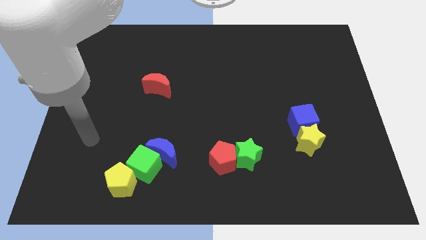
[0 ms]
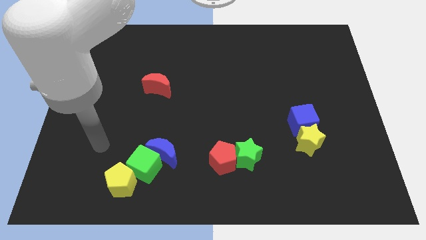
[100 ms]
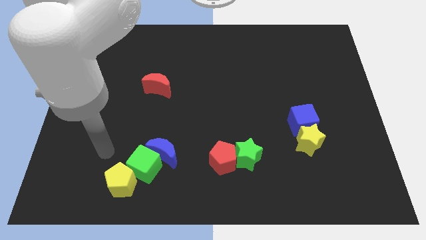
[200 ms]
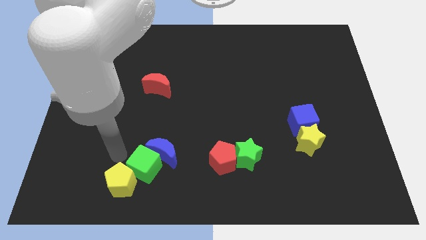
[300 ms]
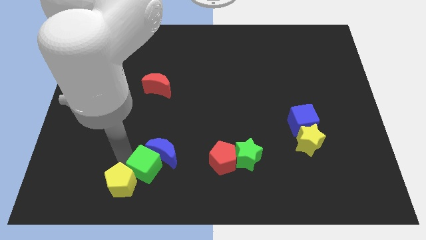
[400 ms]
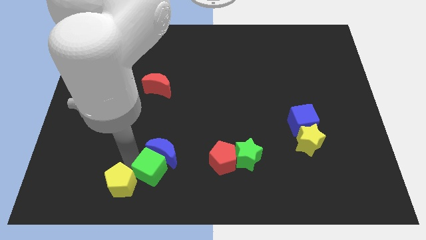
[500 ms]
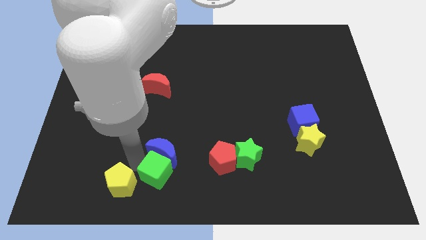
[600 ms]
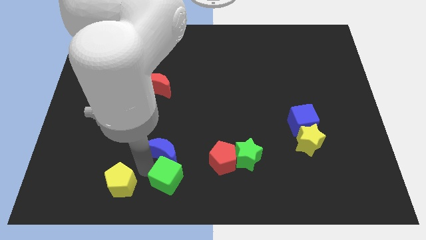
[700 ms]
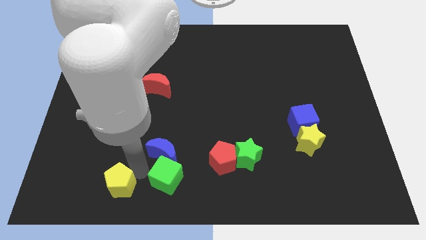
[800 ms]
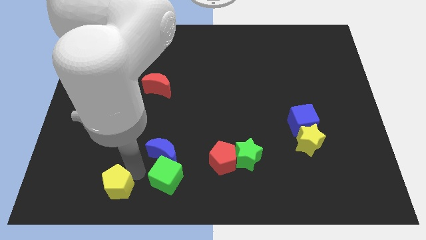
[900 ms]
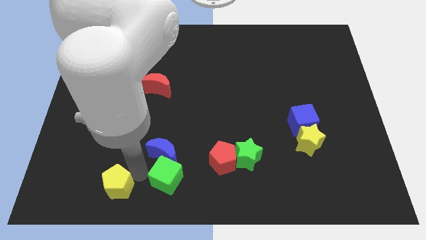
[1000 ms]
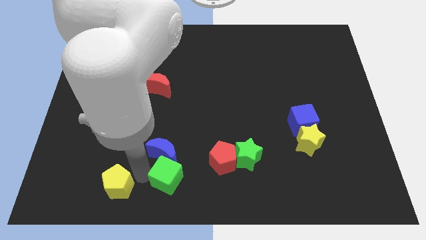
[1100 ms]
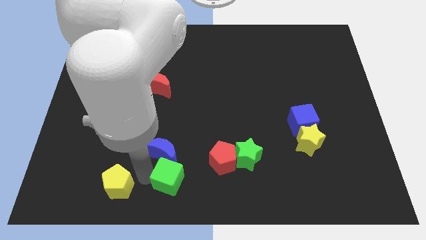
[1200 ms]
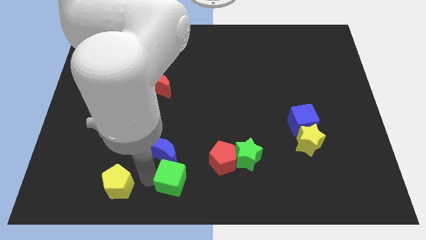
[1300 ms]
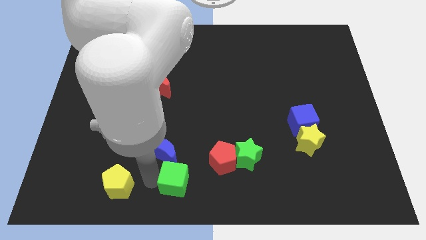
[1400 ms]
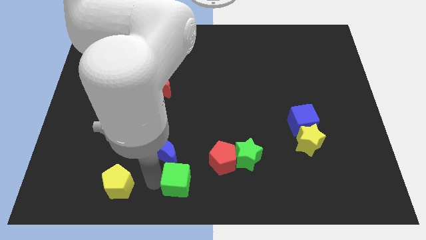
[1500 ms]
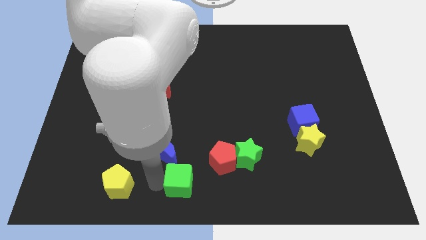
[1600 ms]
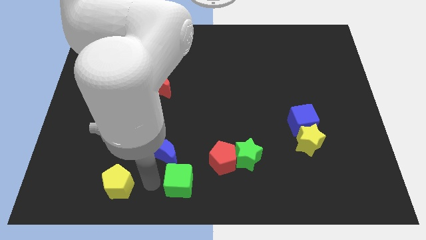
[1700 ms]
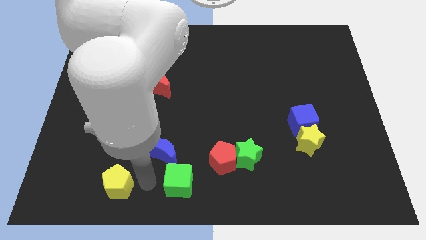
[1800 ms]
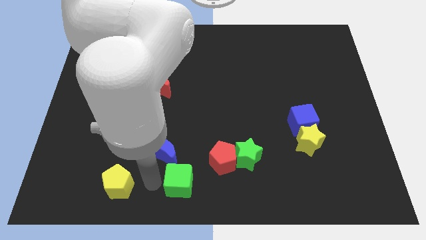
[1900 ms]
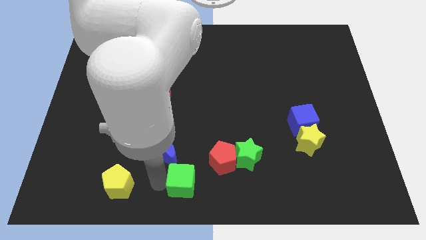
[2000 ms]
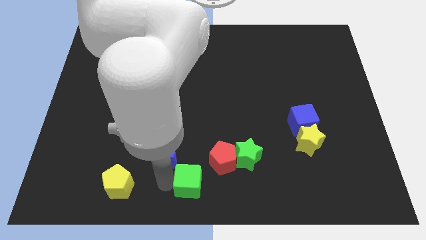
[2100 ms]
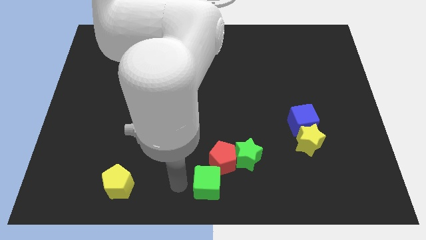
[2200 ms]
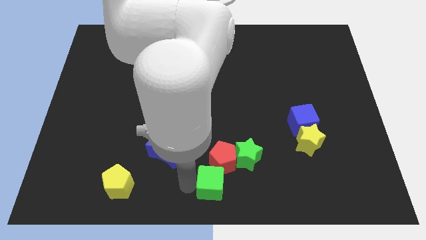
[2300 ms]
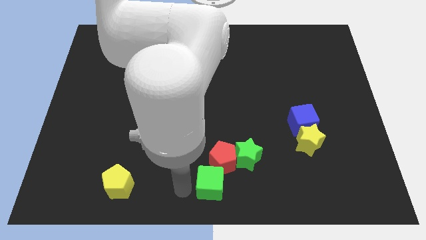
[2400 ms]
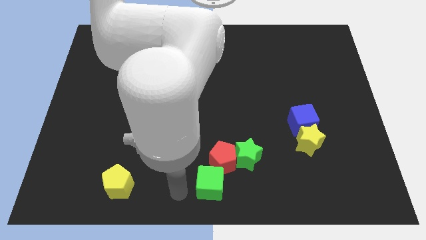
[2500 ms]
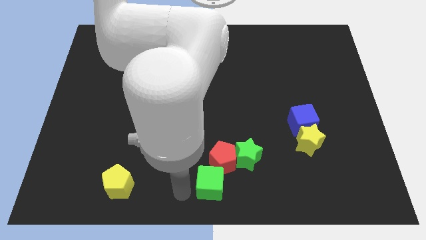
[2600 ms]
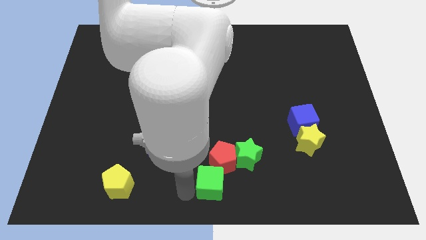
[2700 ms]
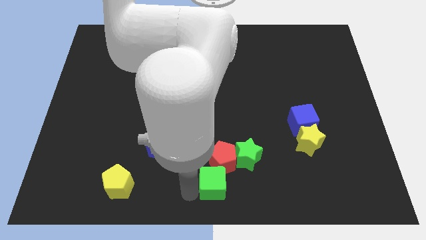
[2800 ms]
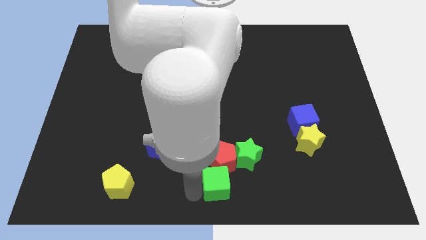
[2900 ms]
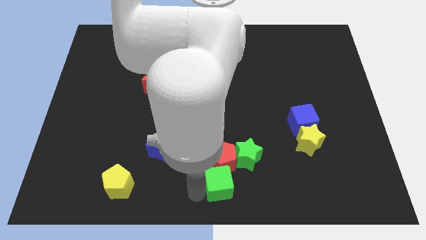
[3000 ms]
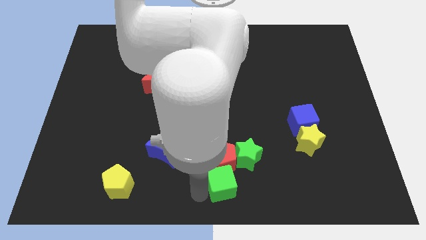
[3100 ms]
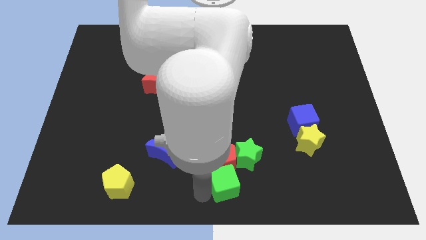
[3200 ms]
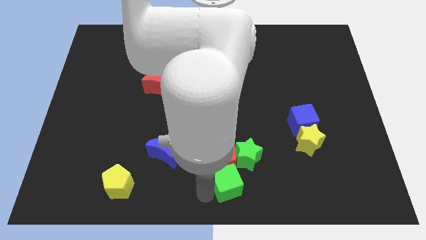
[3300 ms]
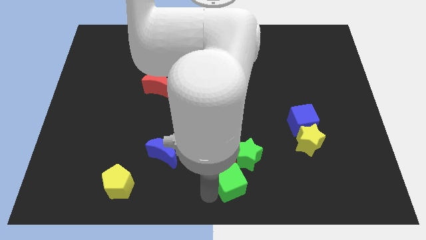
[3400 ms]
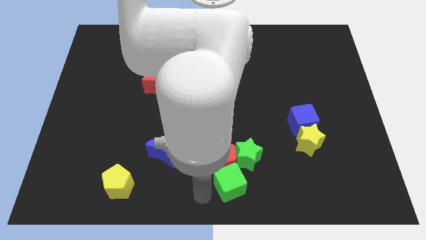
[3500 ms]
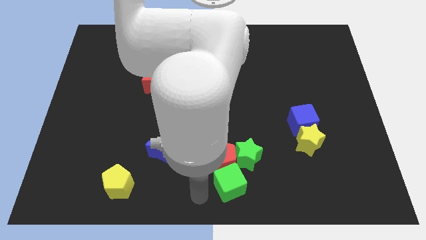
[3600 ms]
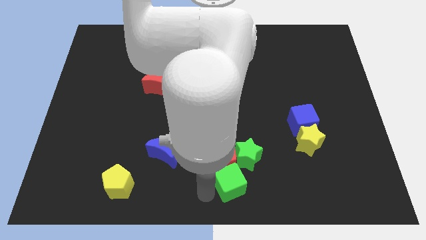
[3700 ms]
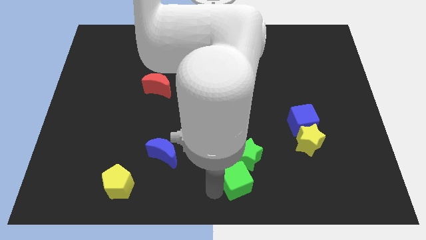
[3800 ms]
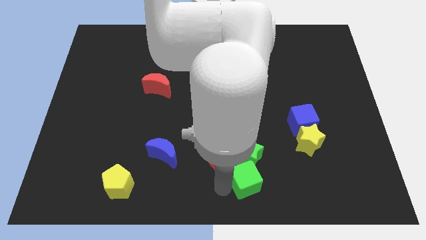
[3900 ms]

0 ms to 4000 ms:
push the green cube to the right

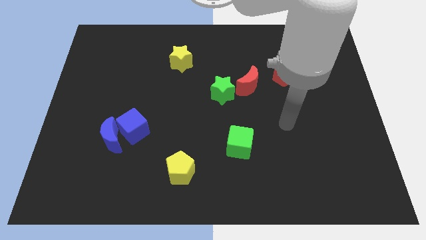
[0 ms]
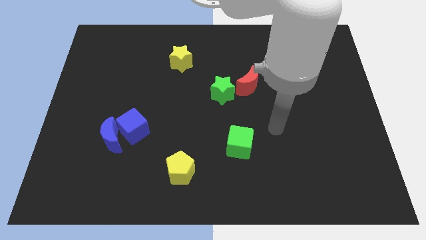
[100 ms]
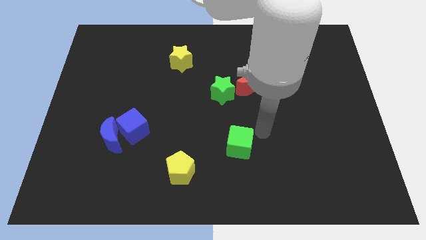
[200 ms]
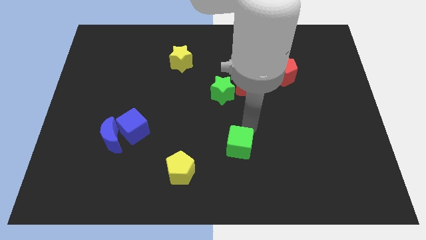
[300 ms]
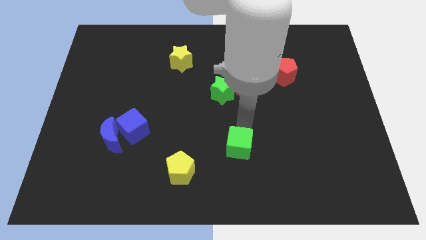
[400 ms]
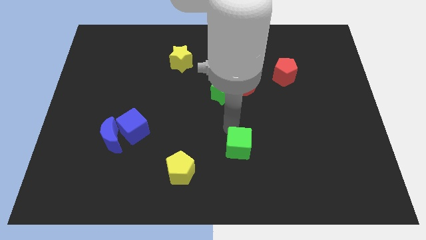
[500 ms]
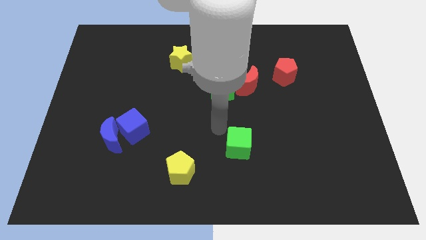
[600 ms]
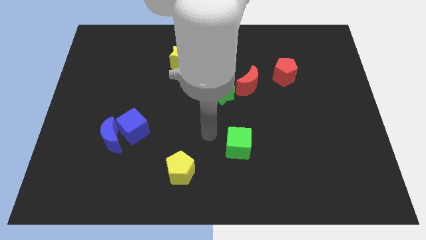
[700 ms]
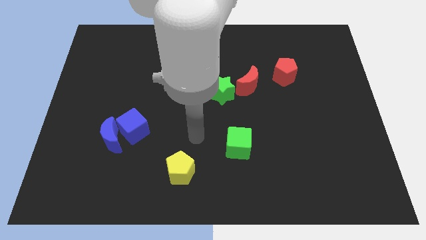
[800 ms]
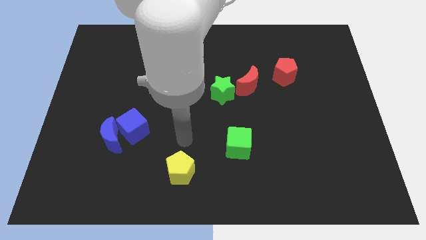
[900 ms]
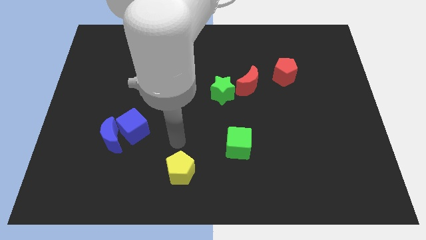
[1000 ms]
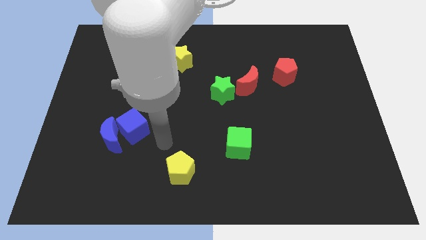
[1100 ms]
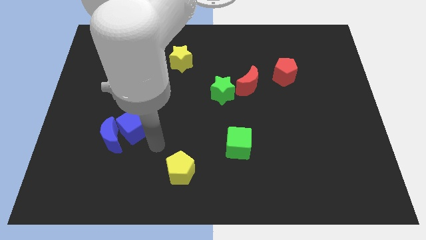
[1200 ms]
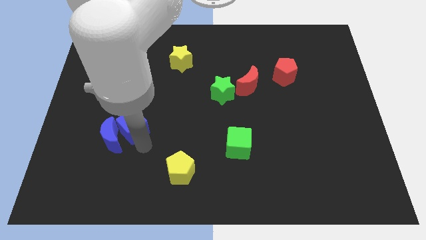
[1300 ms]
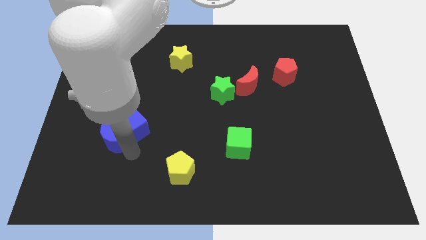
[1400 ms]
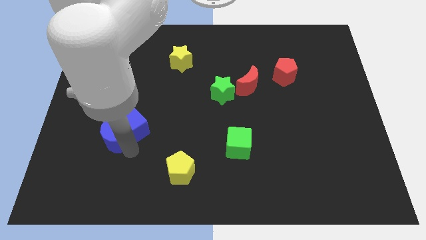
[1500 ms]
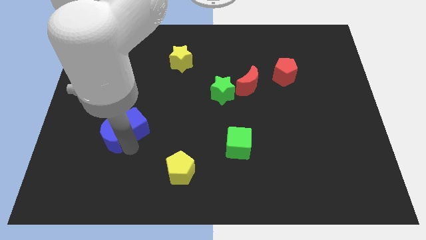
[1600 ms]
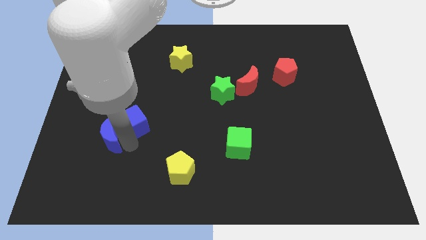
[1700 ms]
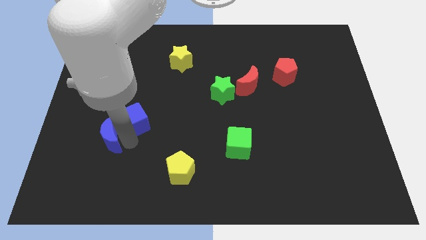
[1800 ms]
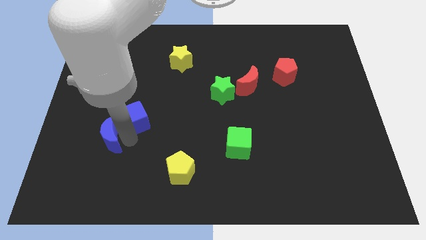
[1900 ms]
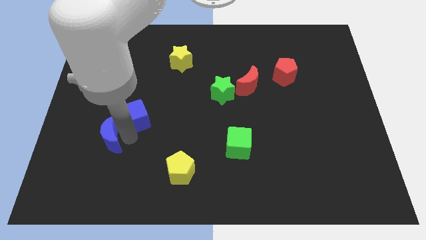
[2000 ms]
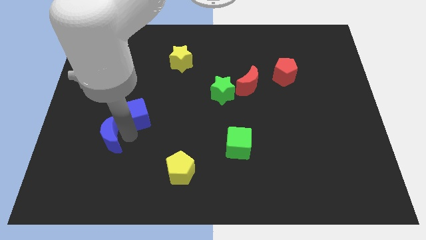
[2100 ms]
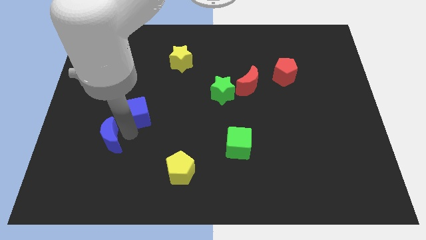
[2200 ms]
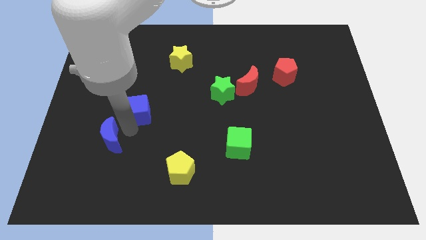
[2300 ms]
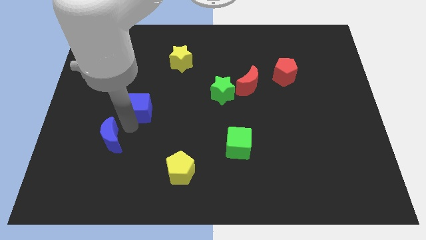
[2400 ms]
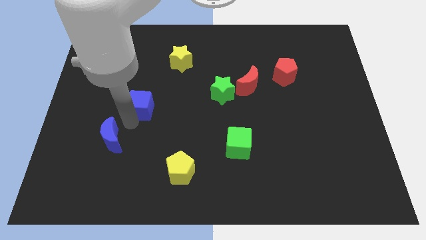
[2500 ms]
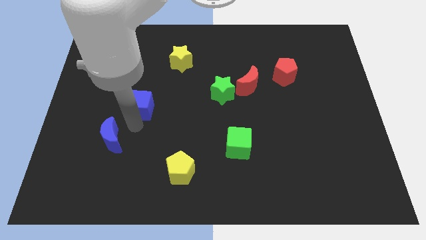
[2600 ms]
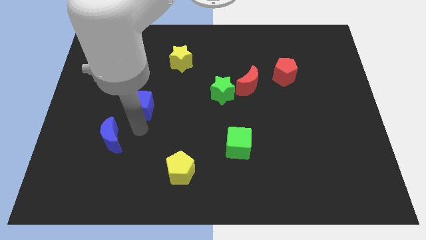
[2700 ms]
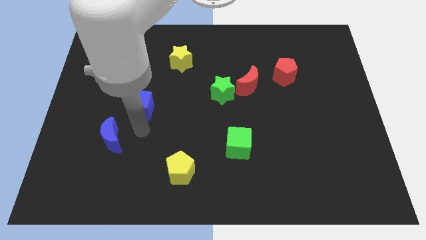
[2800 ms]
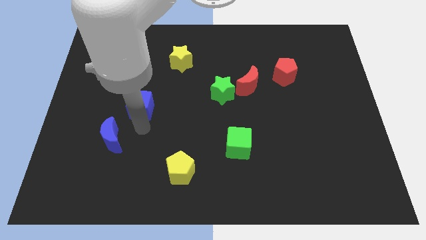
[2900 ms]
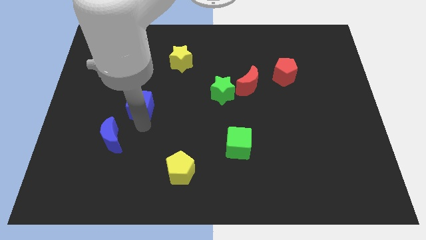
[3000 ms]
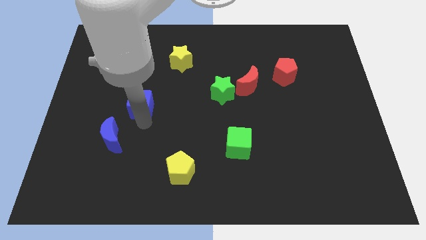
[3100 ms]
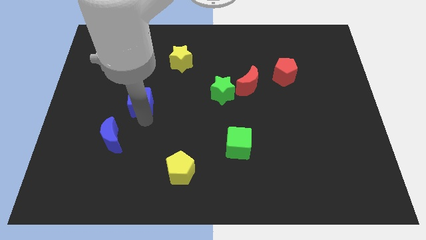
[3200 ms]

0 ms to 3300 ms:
slightly push the blue cube upwards

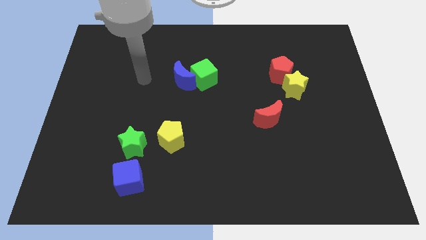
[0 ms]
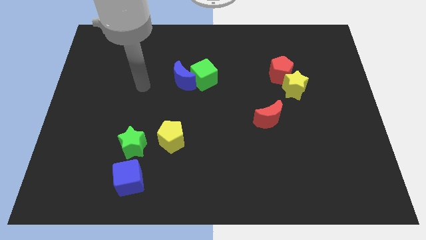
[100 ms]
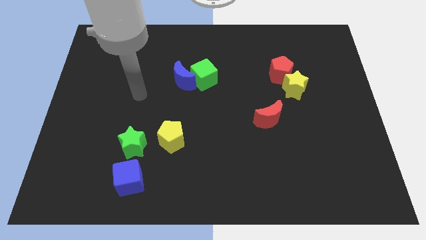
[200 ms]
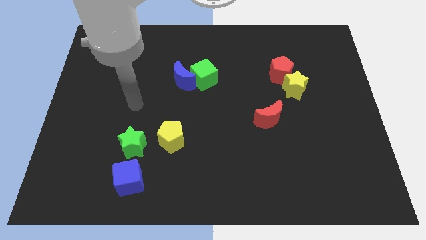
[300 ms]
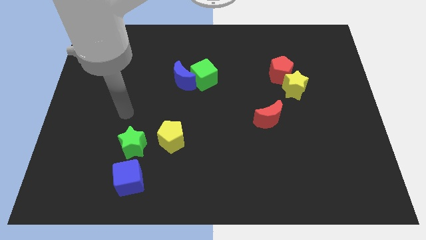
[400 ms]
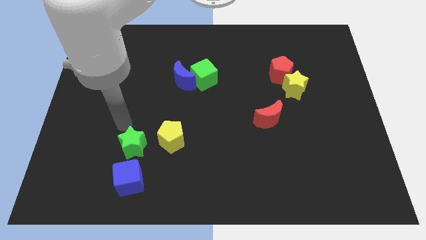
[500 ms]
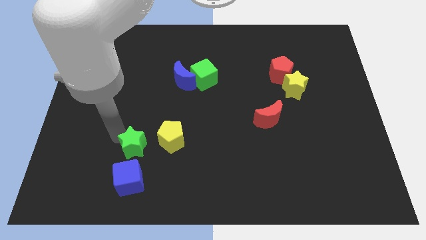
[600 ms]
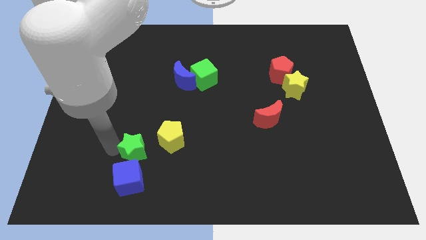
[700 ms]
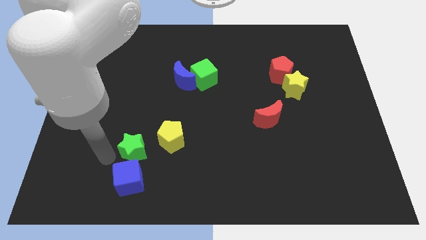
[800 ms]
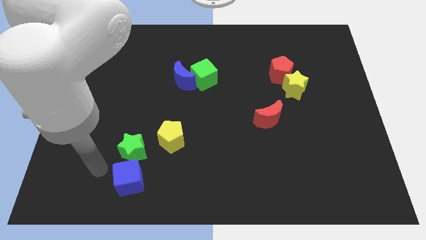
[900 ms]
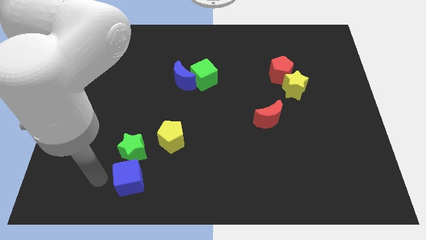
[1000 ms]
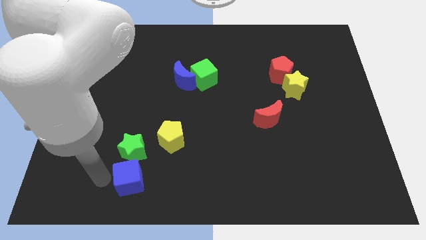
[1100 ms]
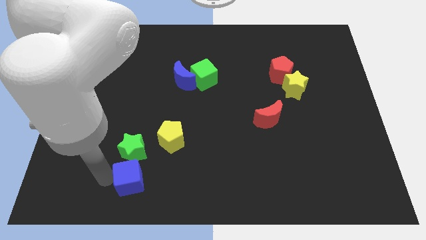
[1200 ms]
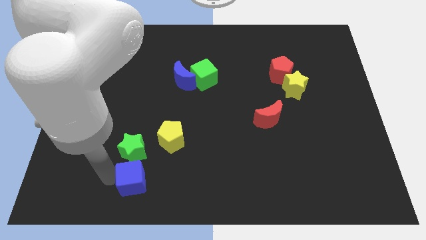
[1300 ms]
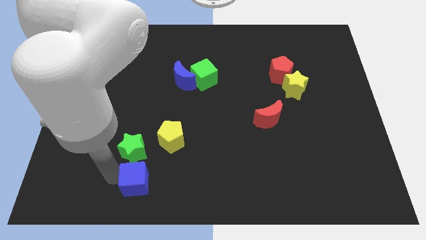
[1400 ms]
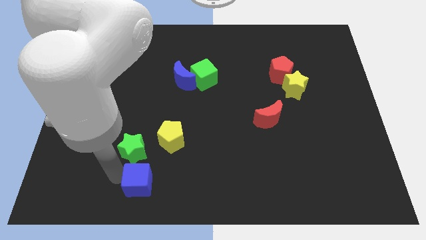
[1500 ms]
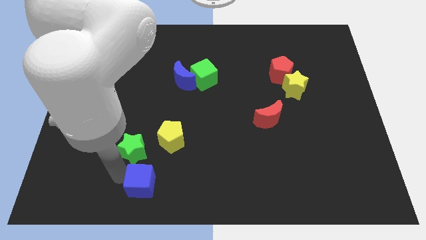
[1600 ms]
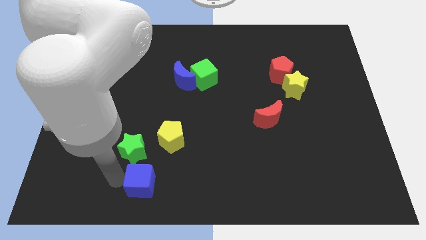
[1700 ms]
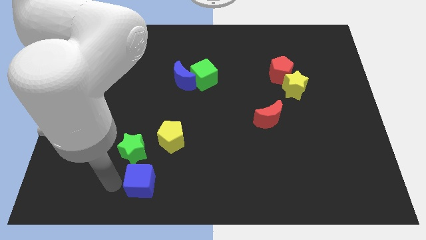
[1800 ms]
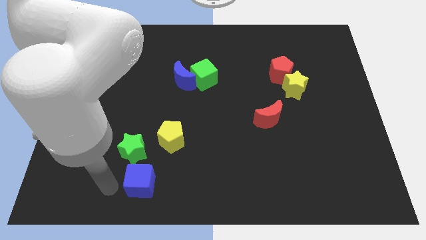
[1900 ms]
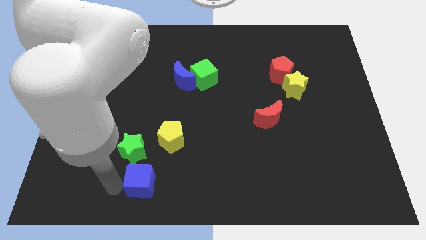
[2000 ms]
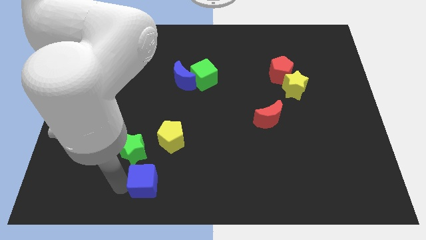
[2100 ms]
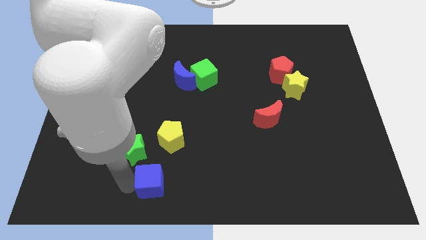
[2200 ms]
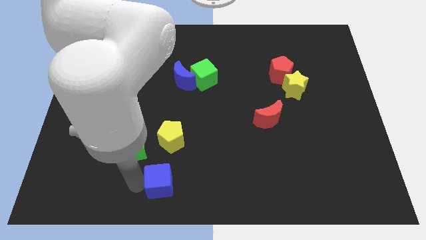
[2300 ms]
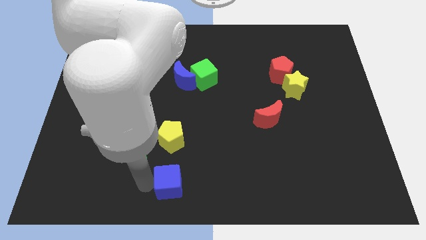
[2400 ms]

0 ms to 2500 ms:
slightly slide the blue cube right
